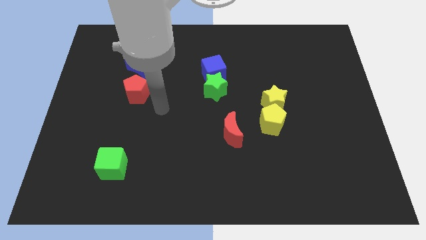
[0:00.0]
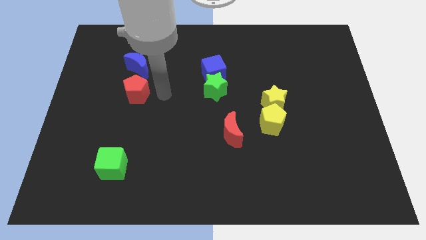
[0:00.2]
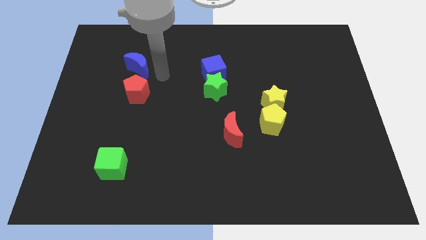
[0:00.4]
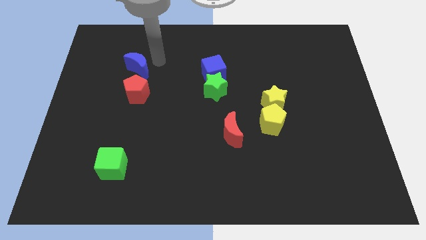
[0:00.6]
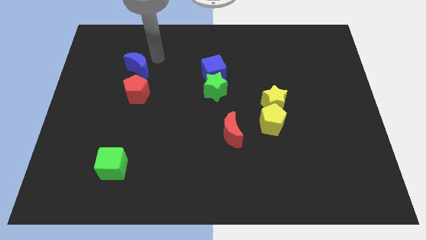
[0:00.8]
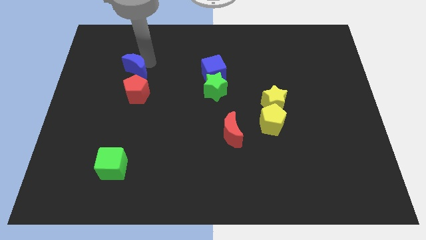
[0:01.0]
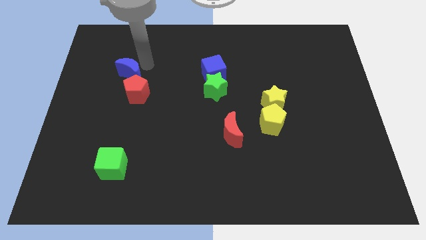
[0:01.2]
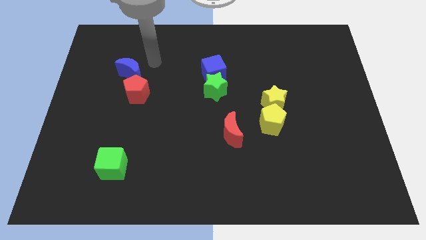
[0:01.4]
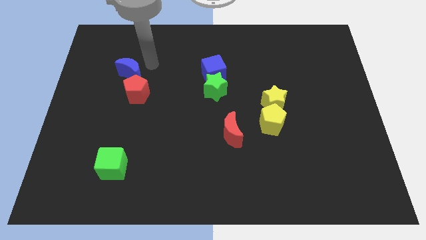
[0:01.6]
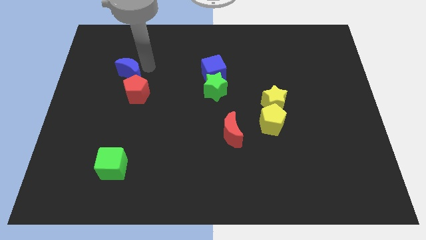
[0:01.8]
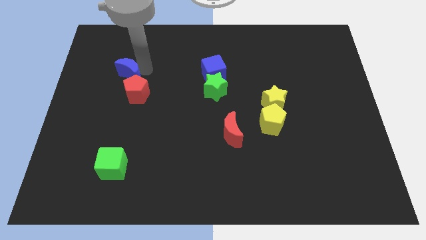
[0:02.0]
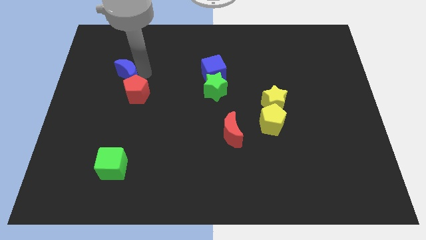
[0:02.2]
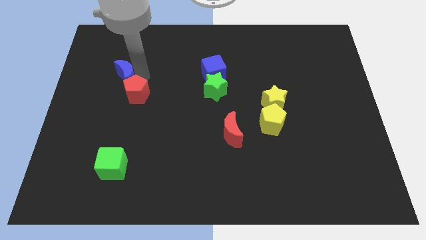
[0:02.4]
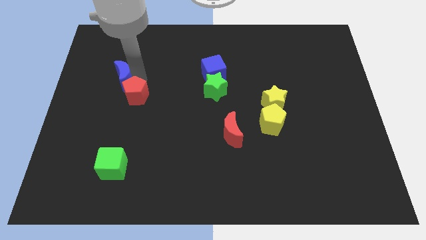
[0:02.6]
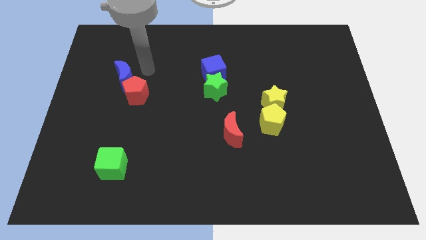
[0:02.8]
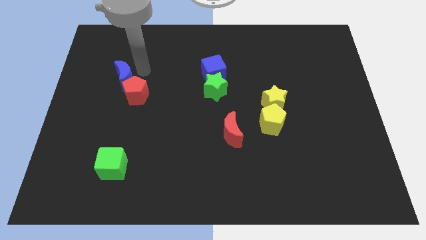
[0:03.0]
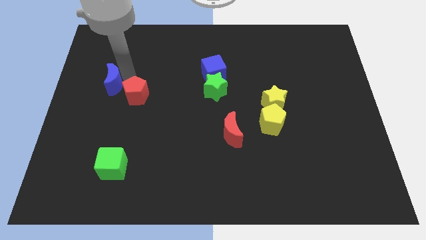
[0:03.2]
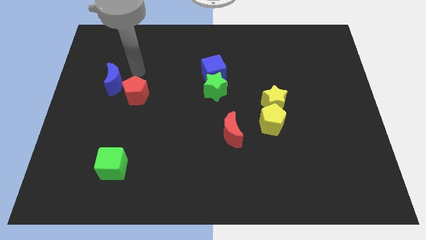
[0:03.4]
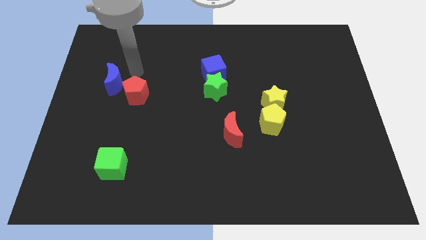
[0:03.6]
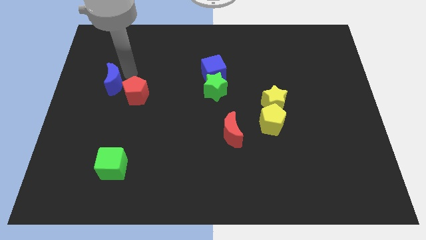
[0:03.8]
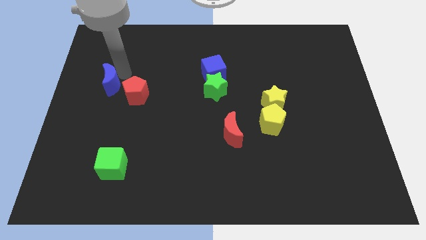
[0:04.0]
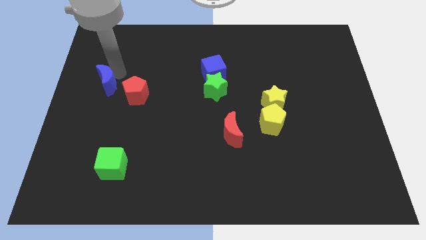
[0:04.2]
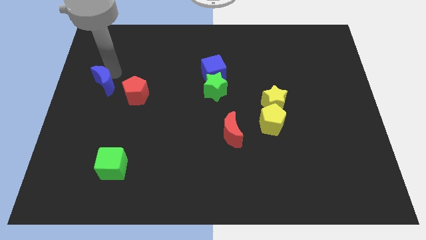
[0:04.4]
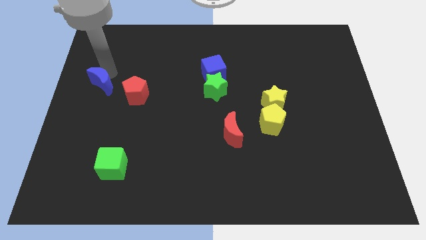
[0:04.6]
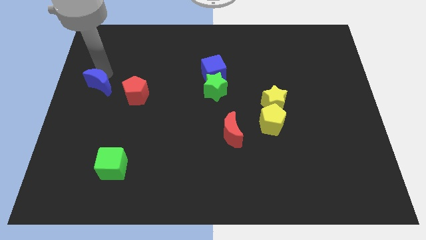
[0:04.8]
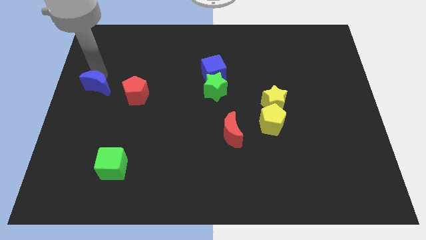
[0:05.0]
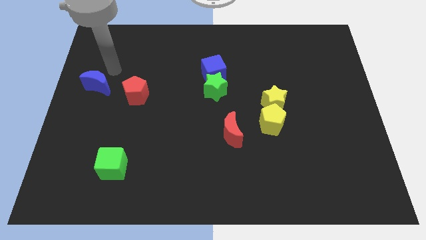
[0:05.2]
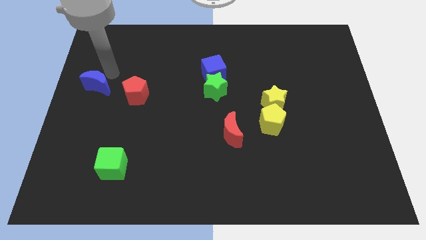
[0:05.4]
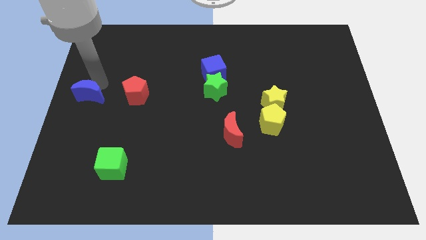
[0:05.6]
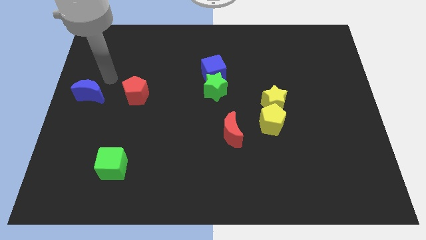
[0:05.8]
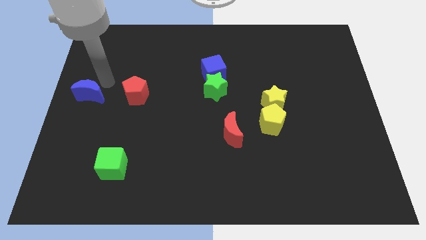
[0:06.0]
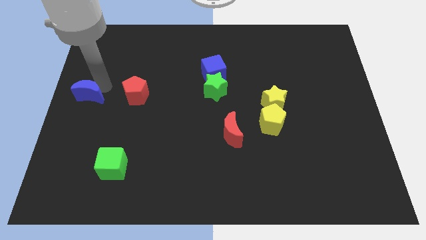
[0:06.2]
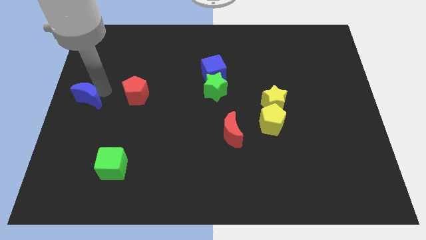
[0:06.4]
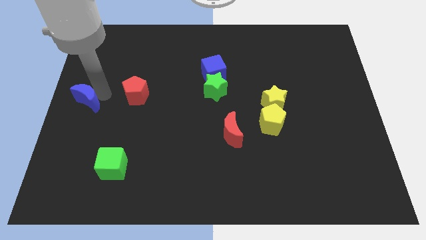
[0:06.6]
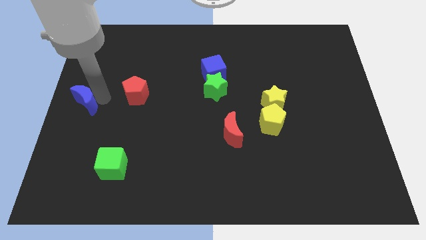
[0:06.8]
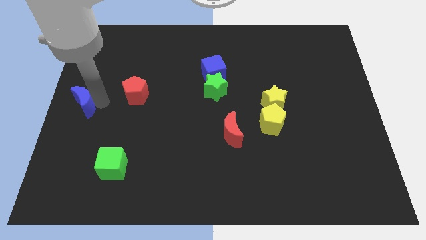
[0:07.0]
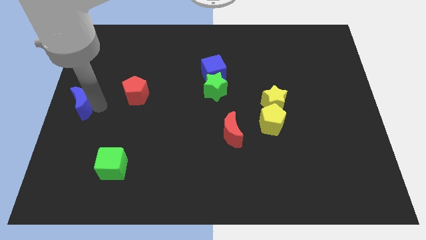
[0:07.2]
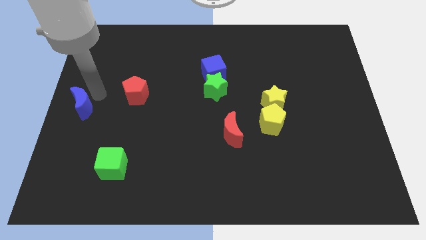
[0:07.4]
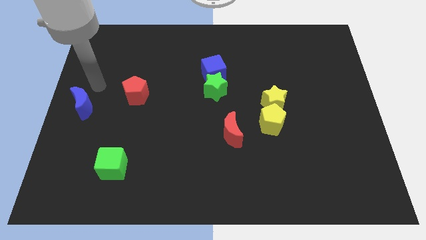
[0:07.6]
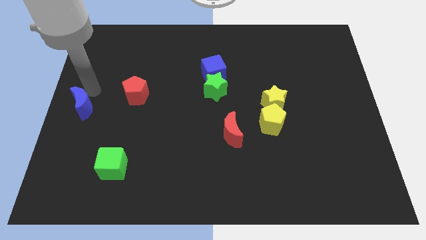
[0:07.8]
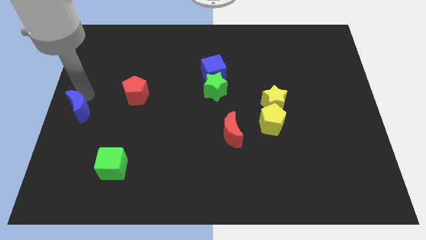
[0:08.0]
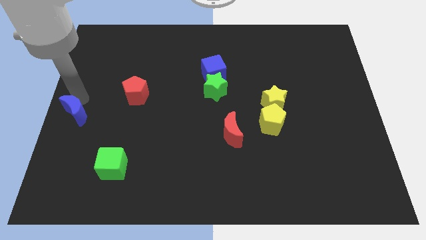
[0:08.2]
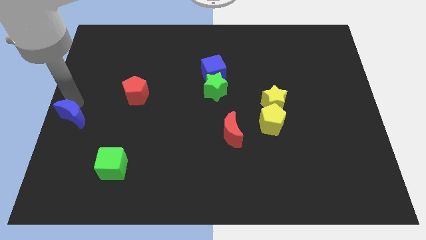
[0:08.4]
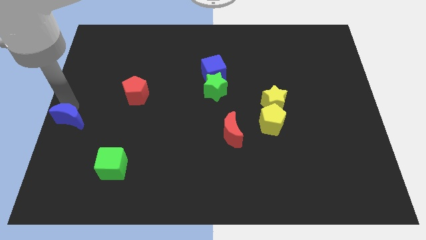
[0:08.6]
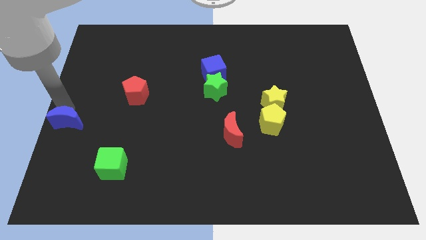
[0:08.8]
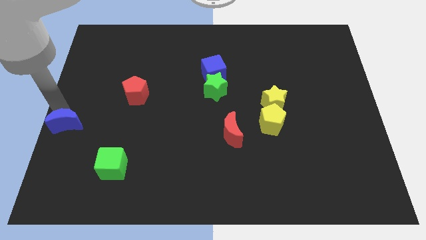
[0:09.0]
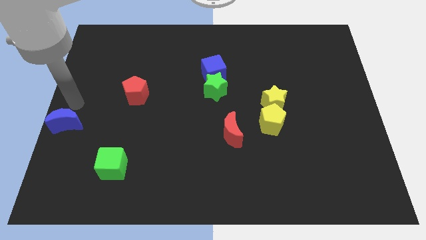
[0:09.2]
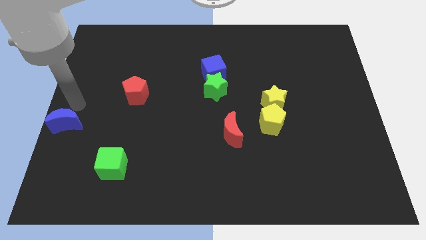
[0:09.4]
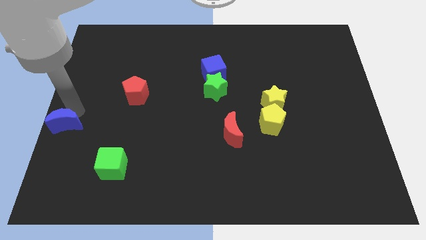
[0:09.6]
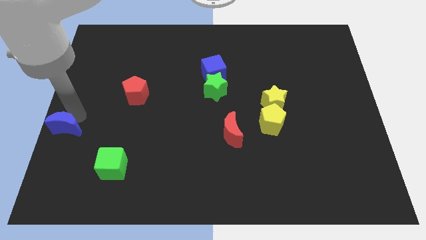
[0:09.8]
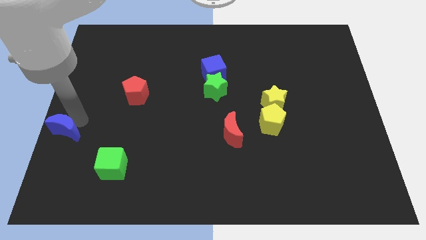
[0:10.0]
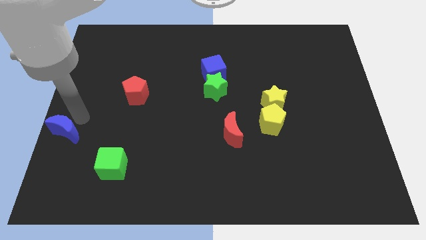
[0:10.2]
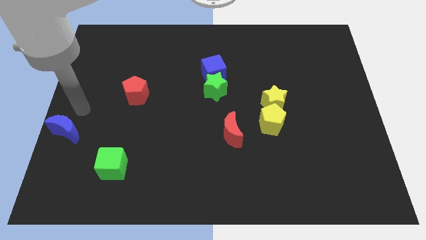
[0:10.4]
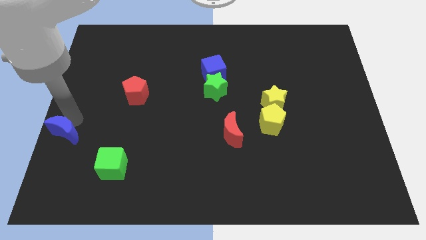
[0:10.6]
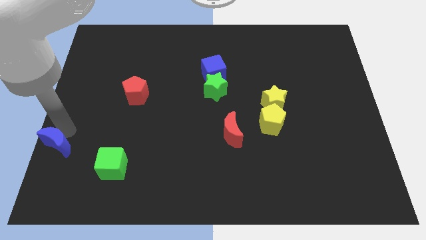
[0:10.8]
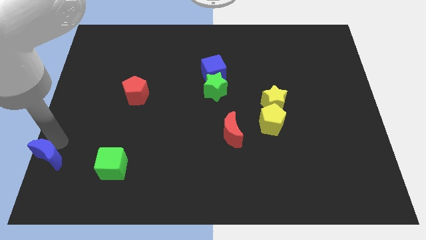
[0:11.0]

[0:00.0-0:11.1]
slide the blue moon to the bottom left

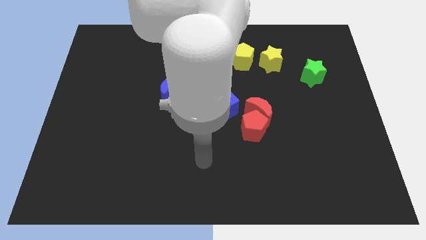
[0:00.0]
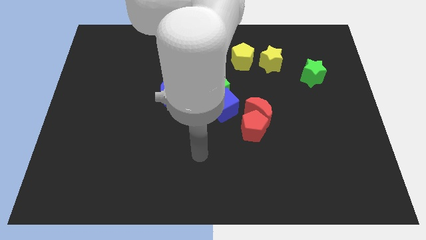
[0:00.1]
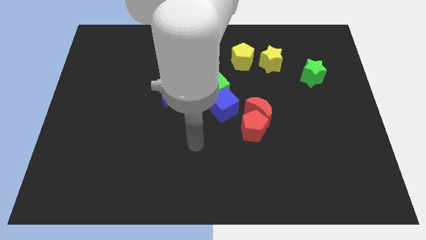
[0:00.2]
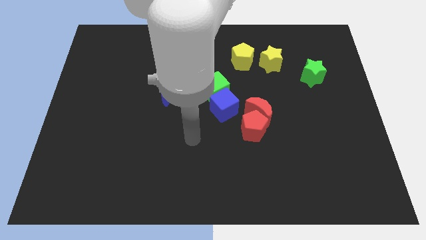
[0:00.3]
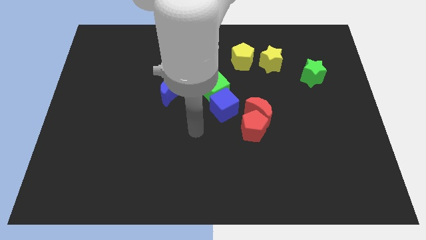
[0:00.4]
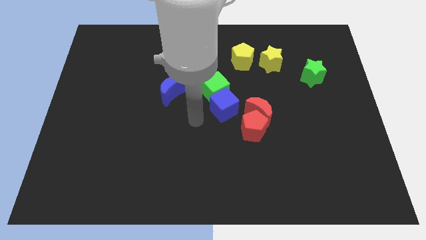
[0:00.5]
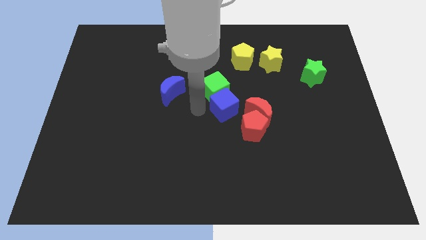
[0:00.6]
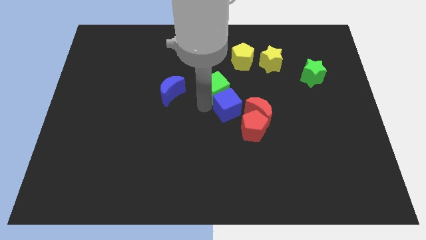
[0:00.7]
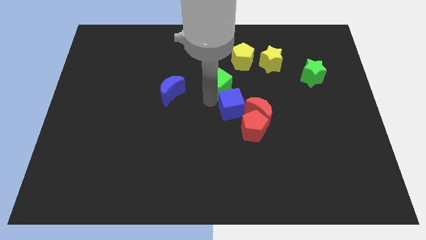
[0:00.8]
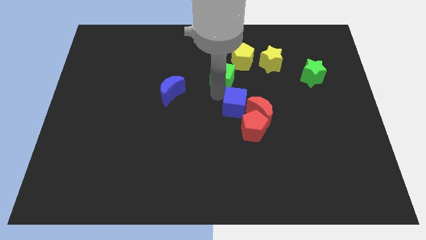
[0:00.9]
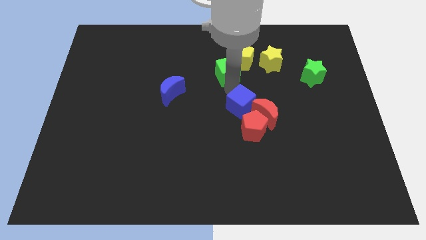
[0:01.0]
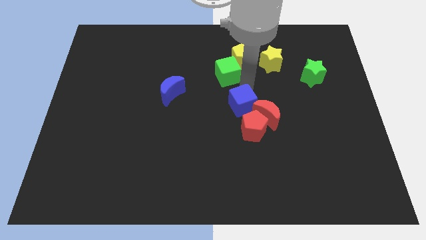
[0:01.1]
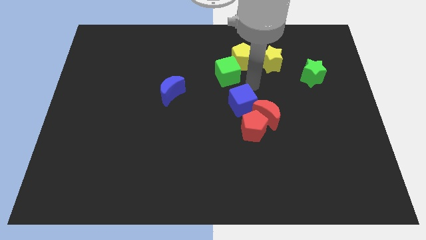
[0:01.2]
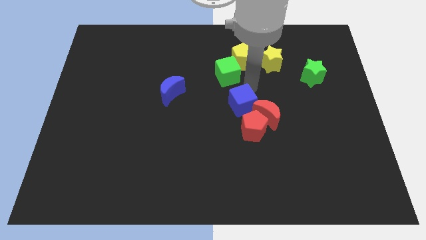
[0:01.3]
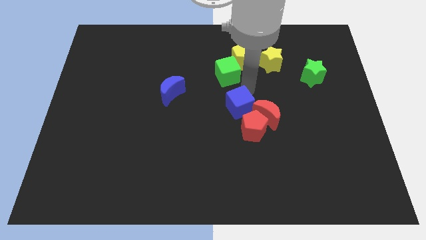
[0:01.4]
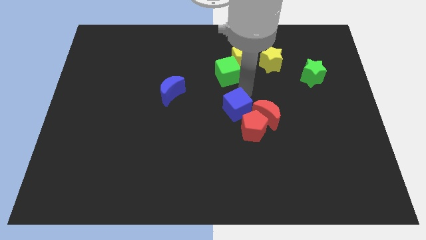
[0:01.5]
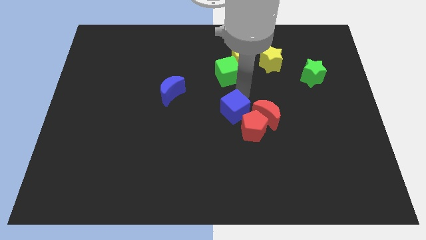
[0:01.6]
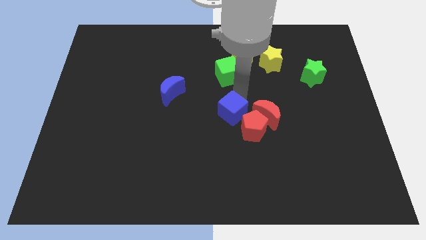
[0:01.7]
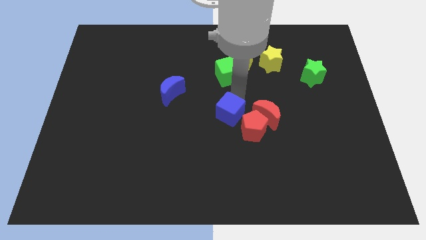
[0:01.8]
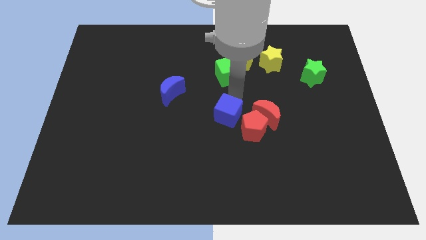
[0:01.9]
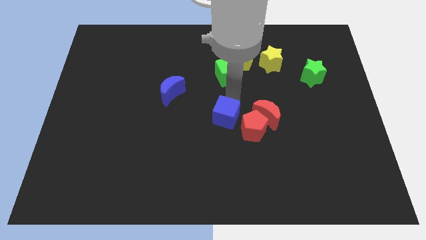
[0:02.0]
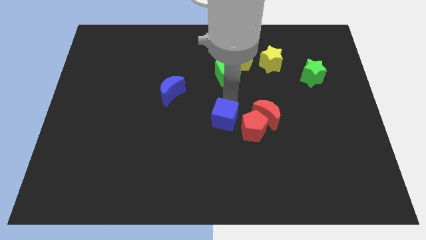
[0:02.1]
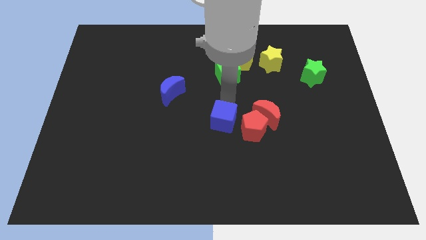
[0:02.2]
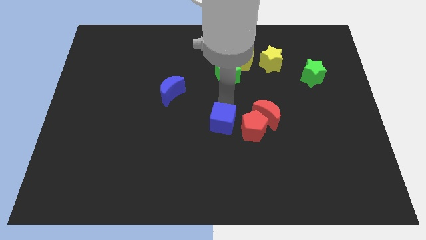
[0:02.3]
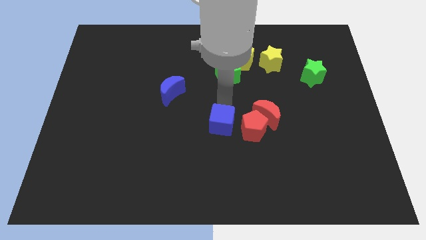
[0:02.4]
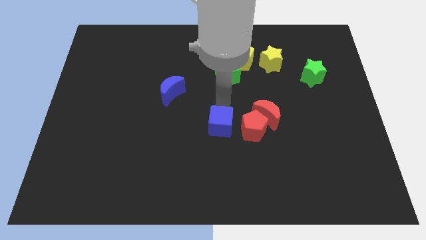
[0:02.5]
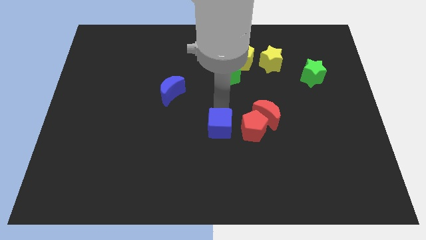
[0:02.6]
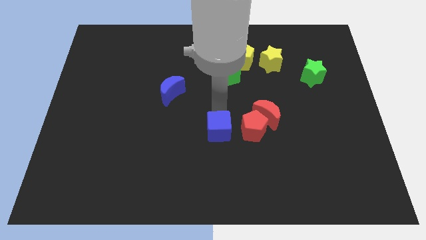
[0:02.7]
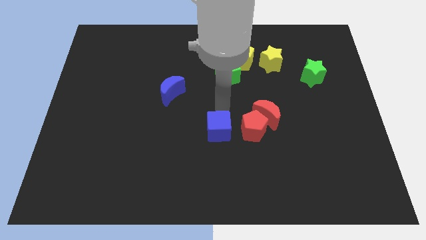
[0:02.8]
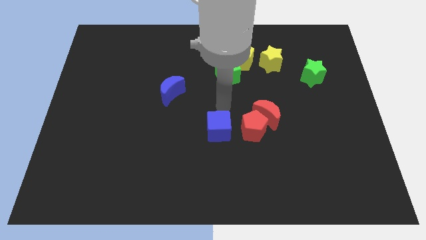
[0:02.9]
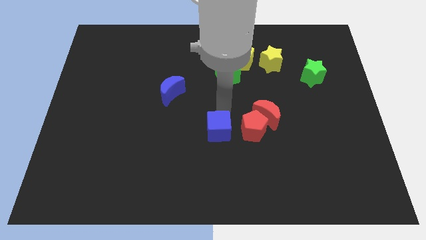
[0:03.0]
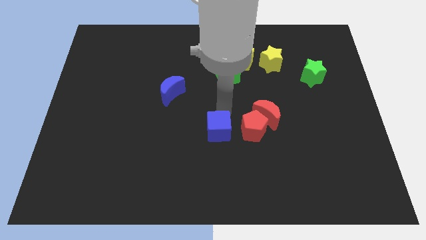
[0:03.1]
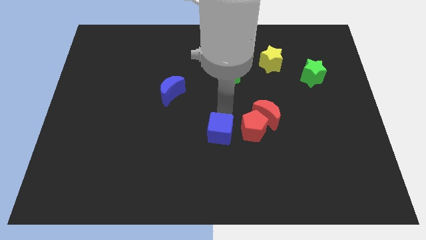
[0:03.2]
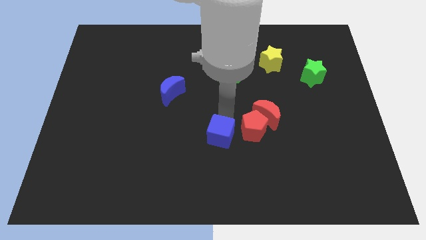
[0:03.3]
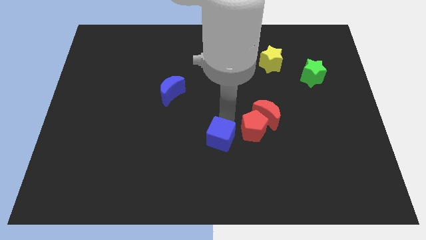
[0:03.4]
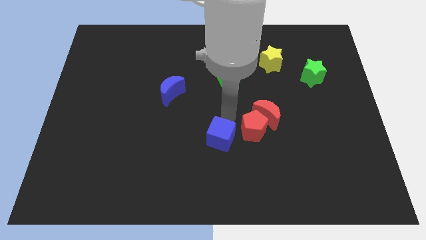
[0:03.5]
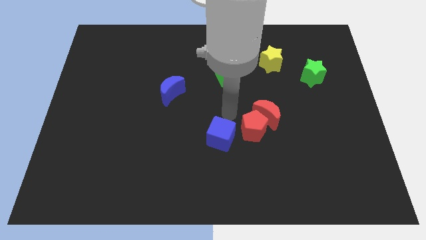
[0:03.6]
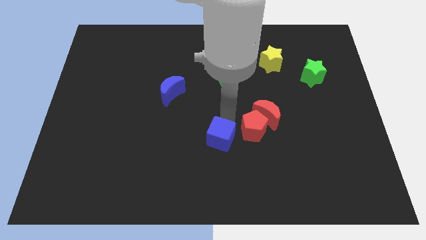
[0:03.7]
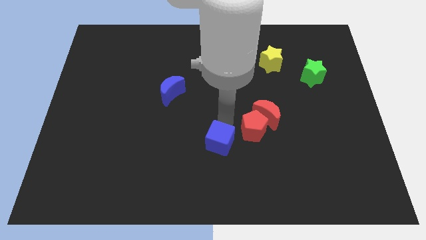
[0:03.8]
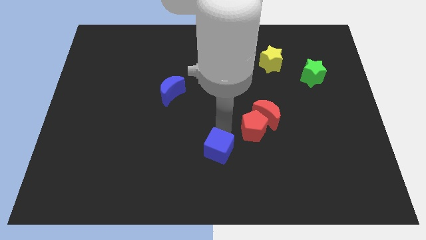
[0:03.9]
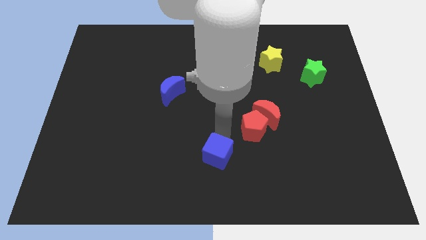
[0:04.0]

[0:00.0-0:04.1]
put the blue cube to the bottom side
